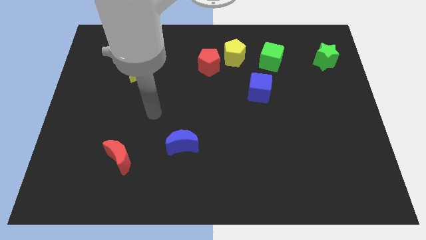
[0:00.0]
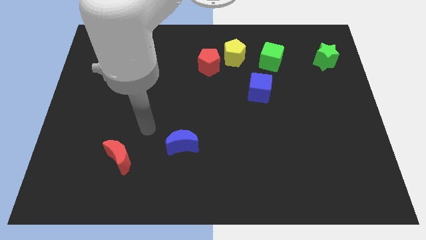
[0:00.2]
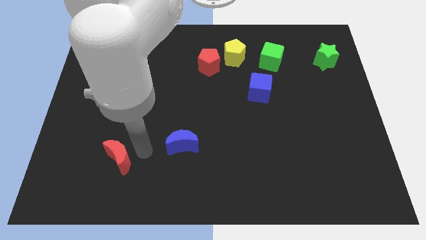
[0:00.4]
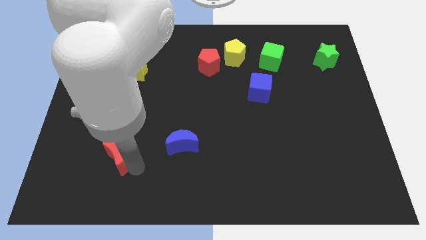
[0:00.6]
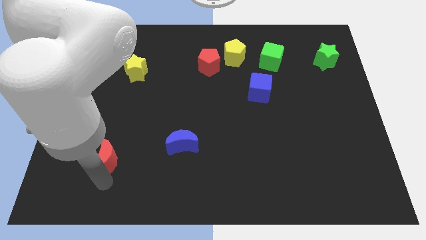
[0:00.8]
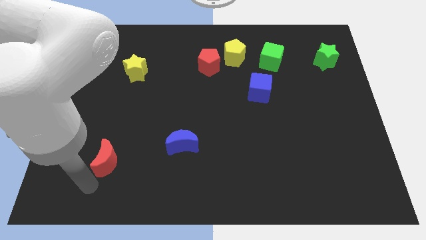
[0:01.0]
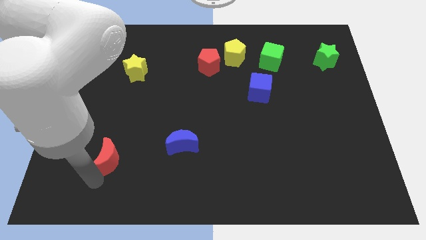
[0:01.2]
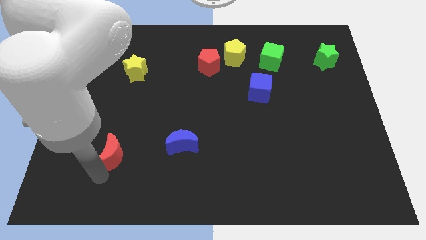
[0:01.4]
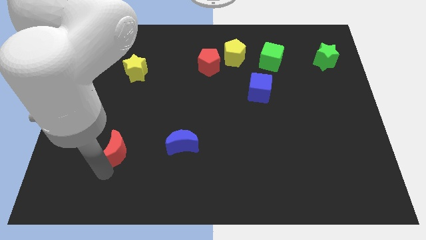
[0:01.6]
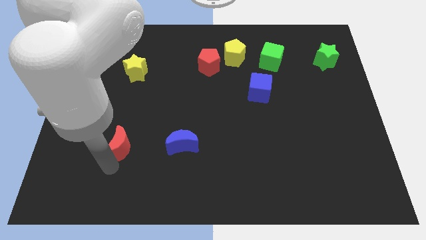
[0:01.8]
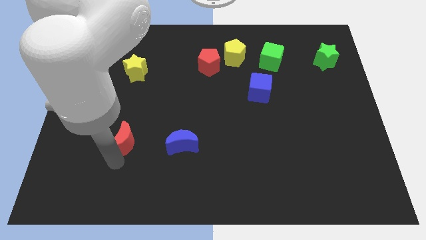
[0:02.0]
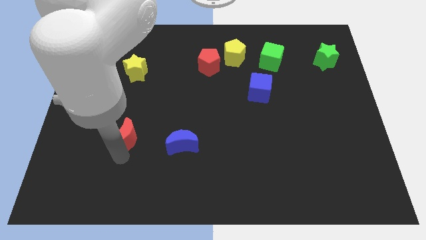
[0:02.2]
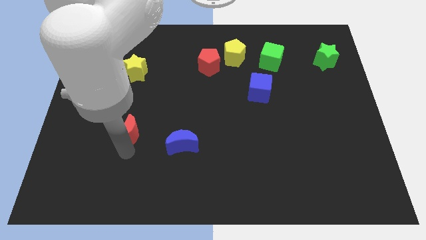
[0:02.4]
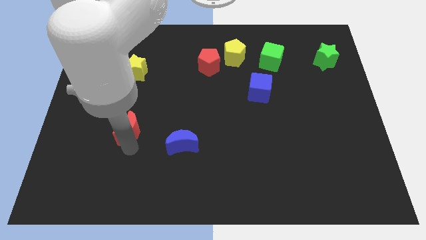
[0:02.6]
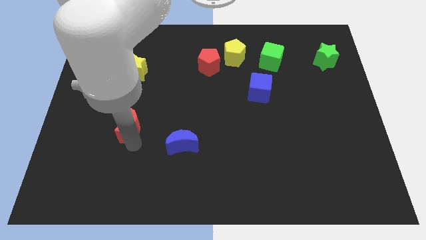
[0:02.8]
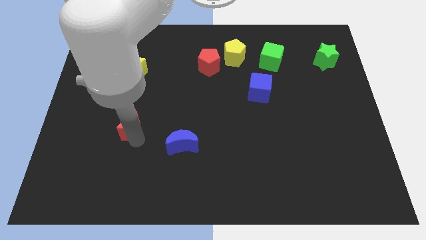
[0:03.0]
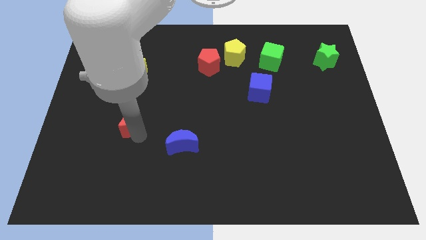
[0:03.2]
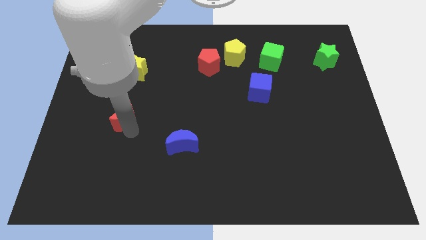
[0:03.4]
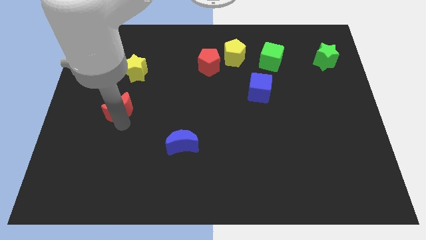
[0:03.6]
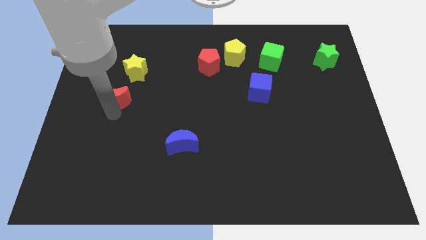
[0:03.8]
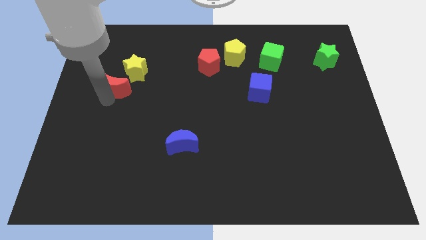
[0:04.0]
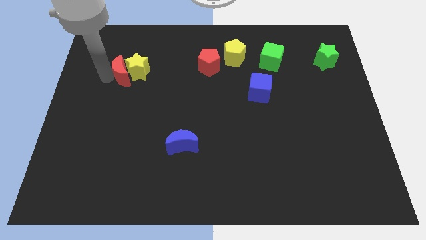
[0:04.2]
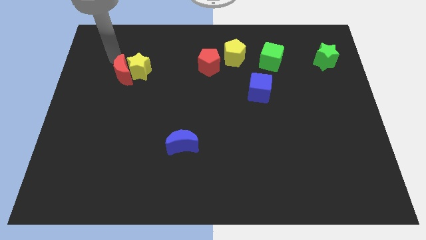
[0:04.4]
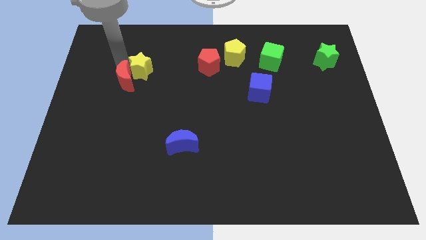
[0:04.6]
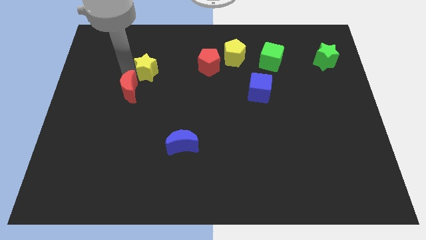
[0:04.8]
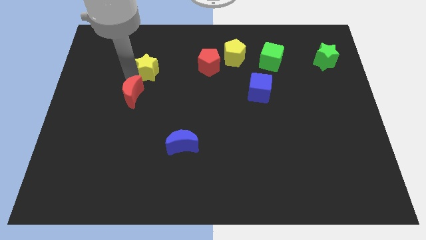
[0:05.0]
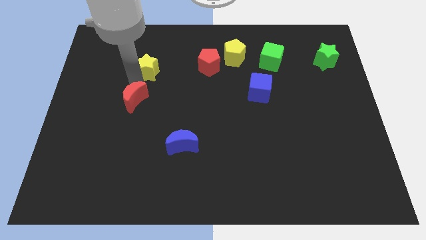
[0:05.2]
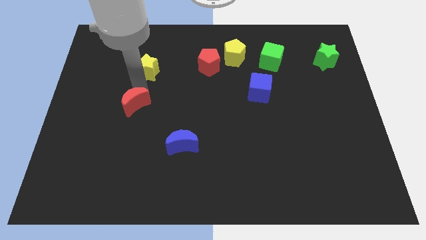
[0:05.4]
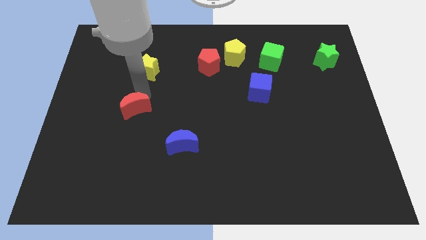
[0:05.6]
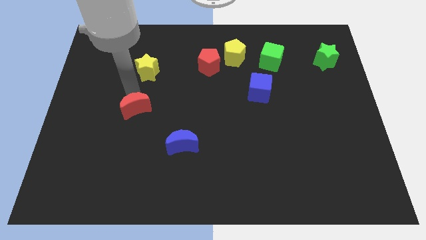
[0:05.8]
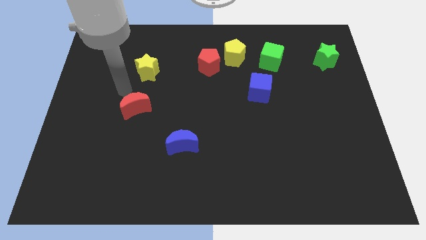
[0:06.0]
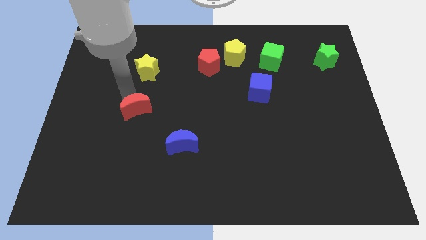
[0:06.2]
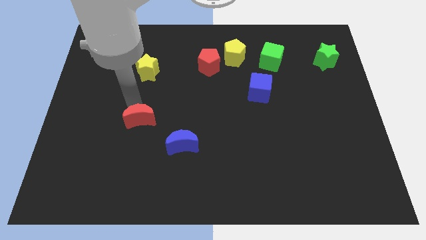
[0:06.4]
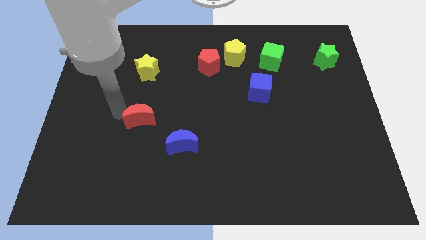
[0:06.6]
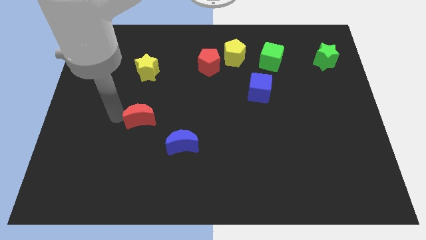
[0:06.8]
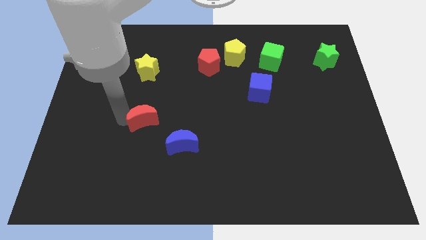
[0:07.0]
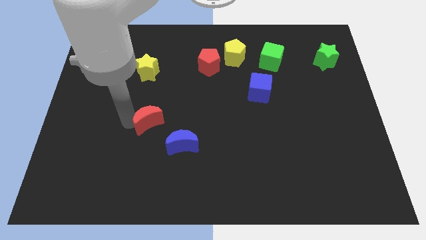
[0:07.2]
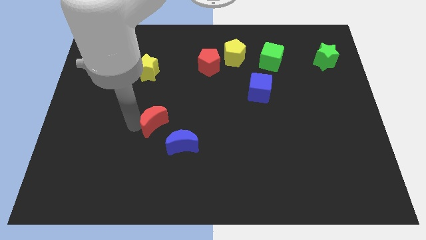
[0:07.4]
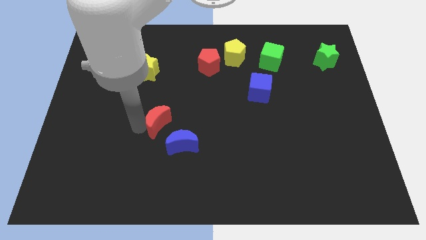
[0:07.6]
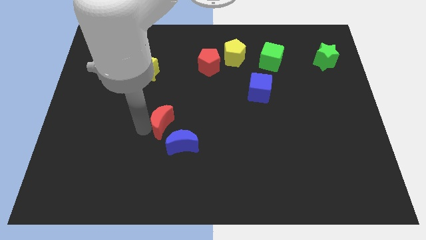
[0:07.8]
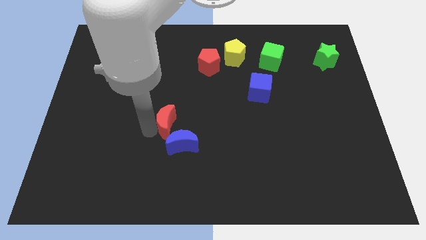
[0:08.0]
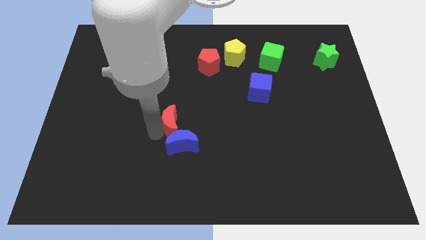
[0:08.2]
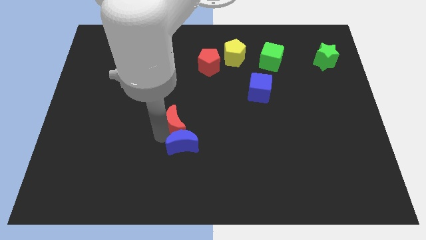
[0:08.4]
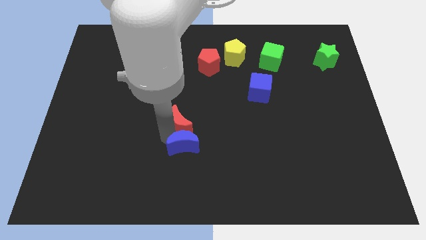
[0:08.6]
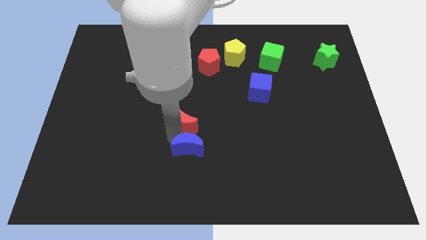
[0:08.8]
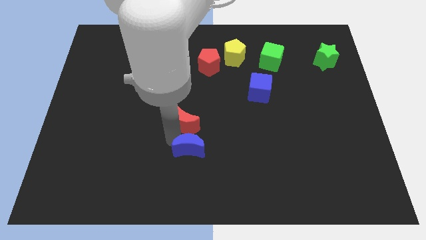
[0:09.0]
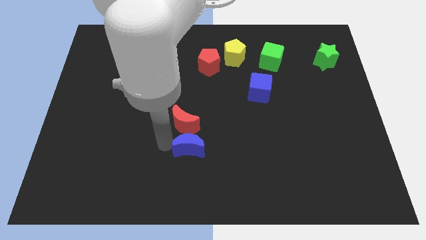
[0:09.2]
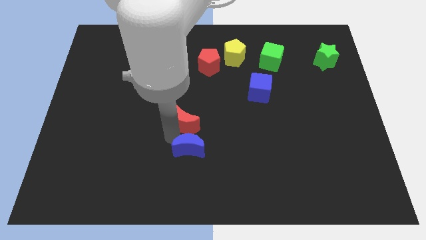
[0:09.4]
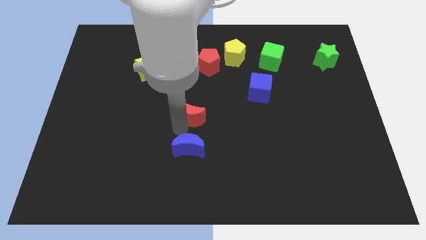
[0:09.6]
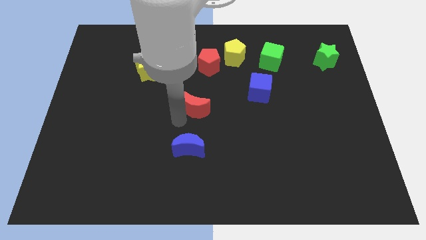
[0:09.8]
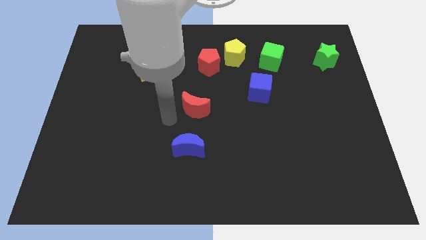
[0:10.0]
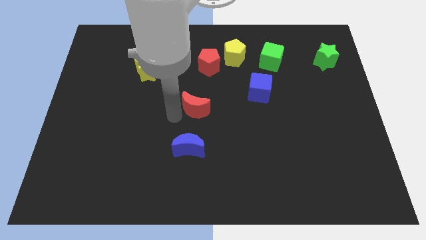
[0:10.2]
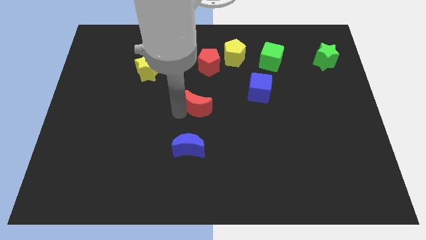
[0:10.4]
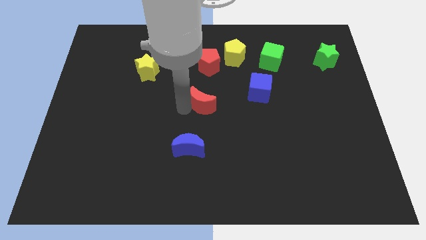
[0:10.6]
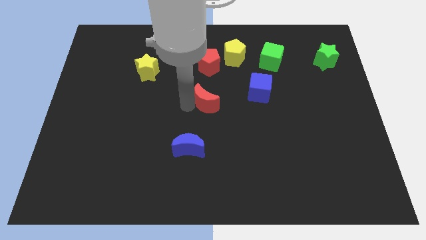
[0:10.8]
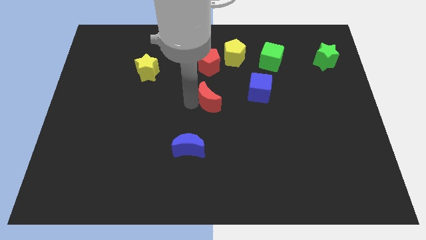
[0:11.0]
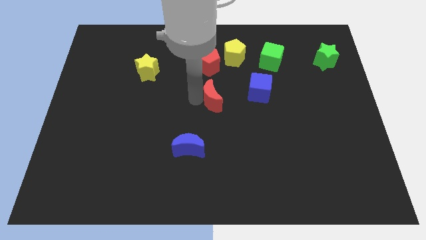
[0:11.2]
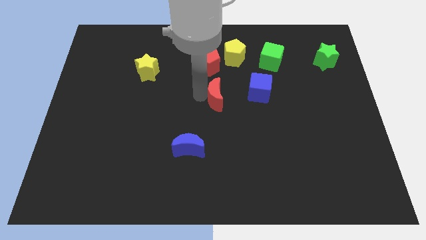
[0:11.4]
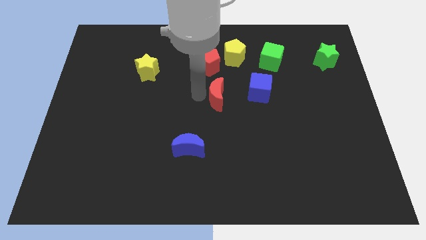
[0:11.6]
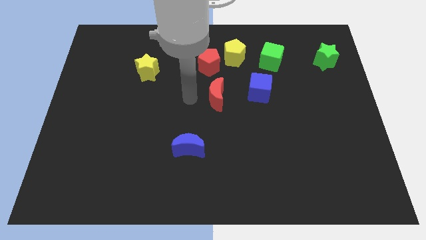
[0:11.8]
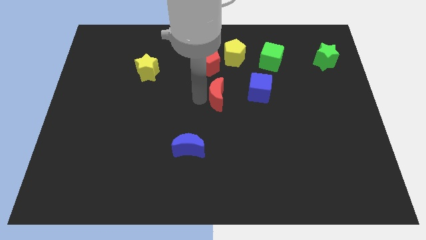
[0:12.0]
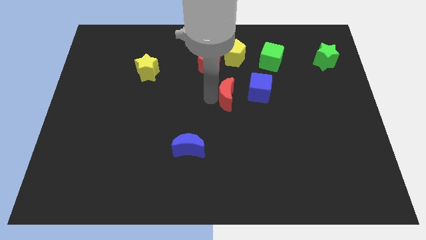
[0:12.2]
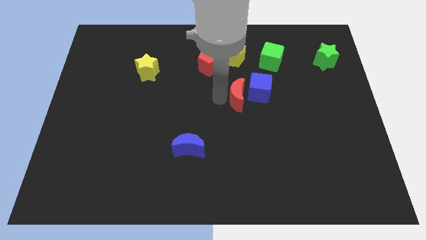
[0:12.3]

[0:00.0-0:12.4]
slide the red moon close to the blue cube

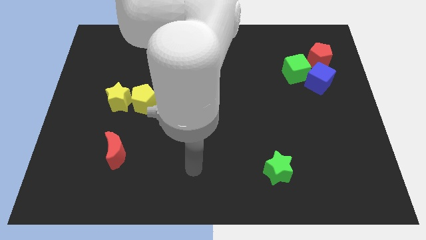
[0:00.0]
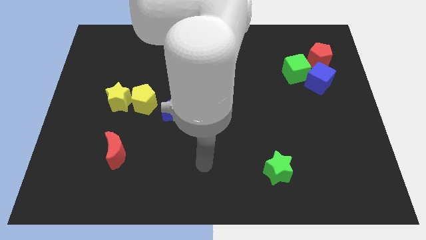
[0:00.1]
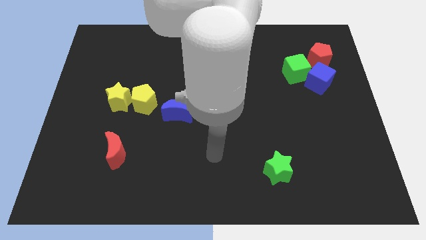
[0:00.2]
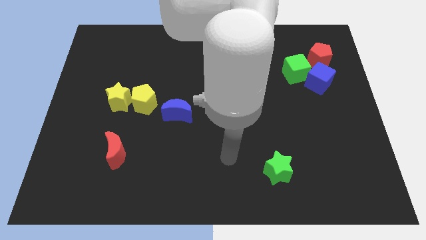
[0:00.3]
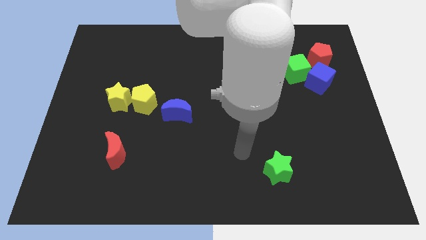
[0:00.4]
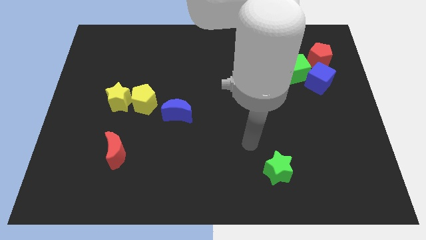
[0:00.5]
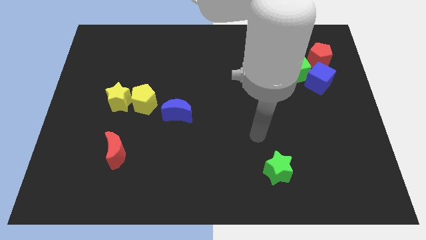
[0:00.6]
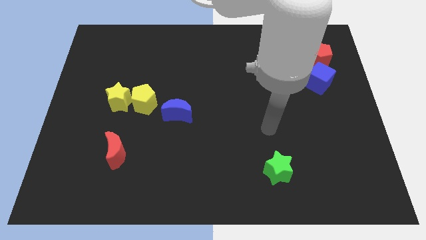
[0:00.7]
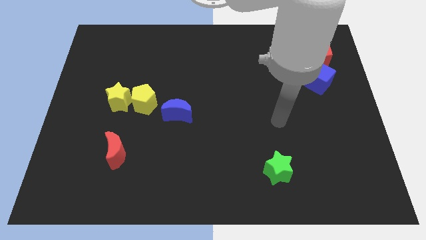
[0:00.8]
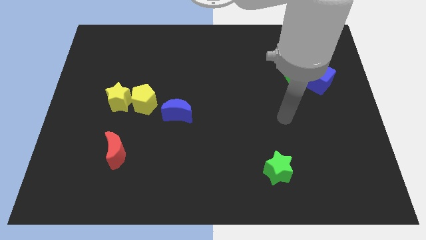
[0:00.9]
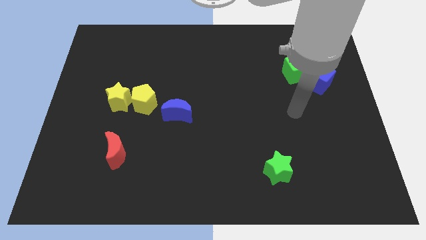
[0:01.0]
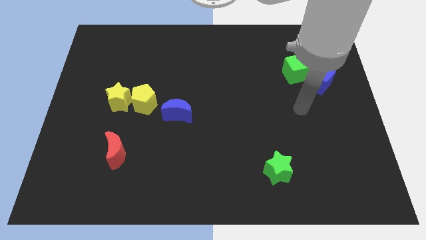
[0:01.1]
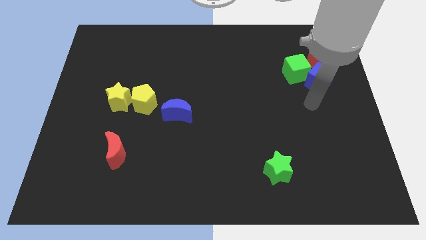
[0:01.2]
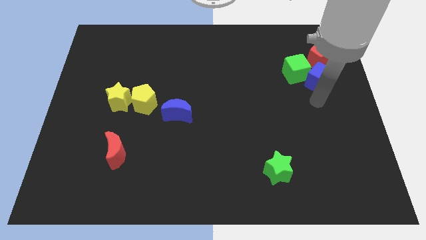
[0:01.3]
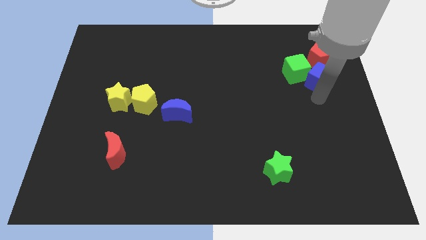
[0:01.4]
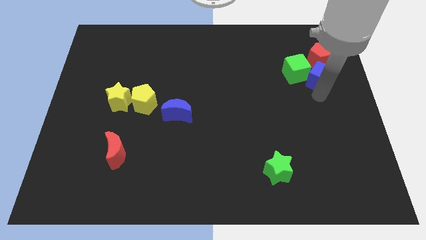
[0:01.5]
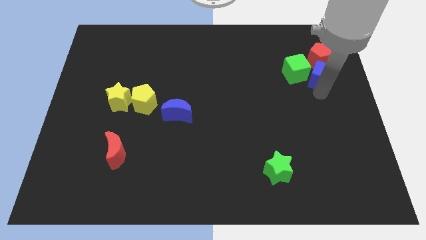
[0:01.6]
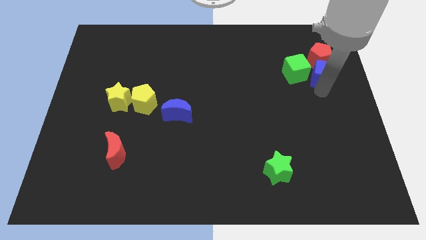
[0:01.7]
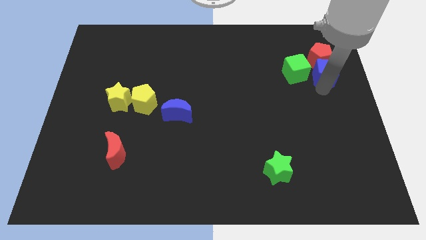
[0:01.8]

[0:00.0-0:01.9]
put the blue cube towards the red pentagon
